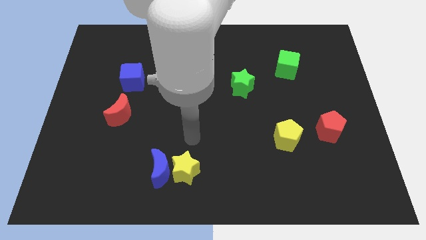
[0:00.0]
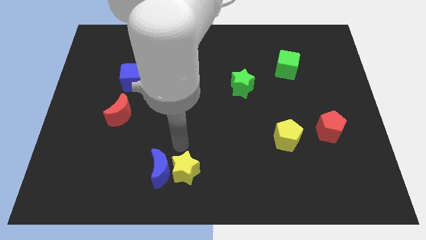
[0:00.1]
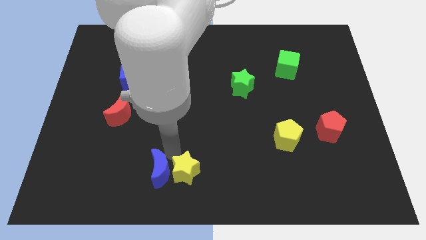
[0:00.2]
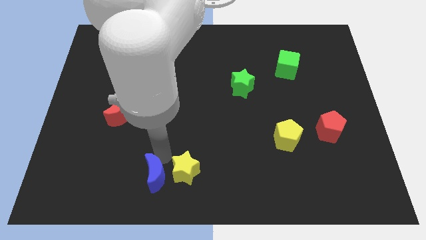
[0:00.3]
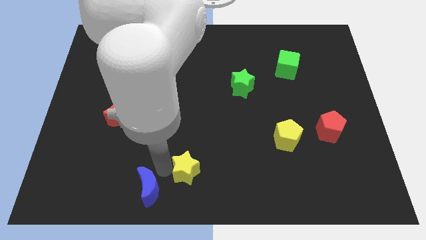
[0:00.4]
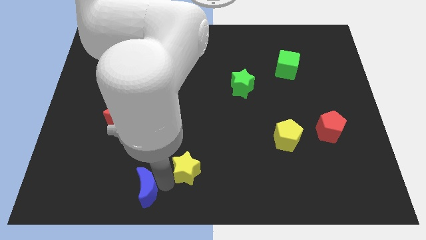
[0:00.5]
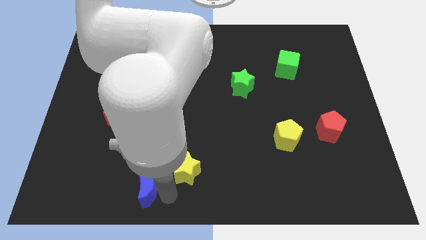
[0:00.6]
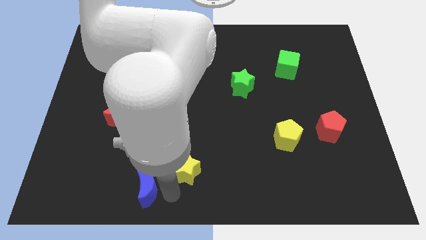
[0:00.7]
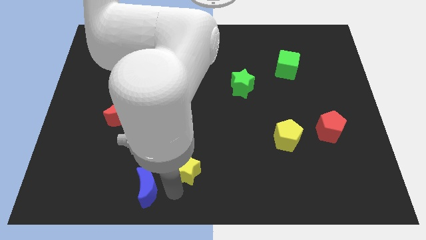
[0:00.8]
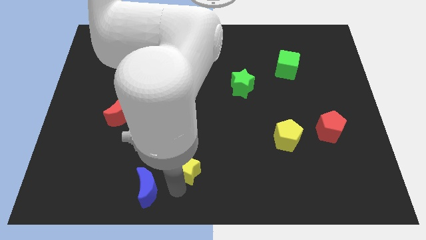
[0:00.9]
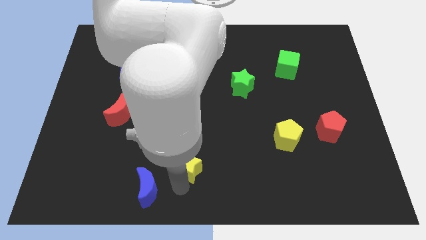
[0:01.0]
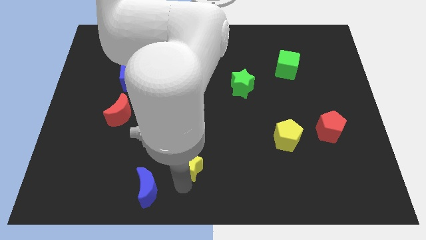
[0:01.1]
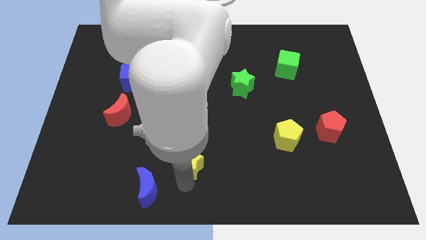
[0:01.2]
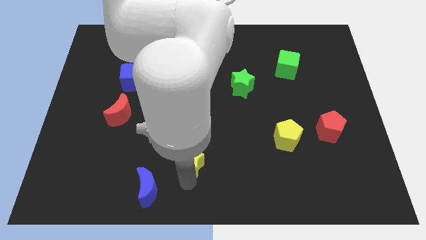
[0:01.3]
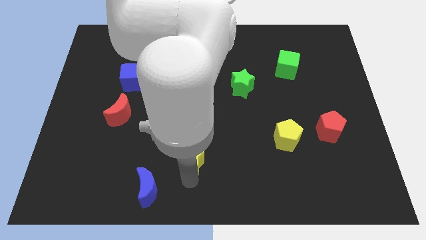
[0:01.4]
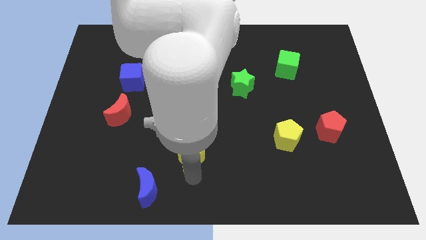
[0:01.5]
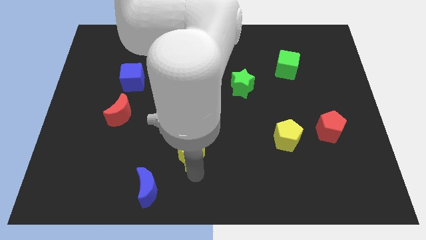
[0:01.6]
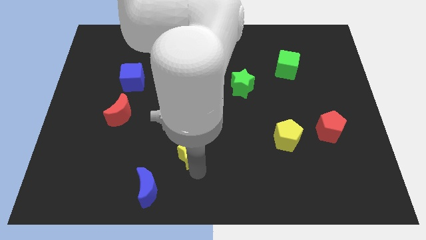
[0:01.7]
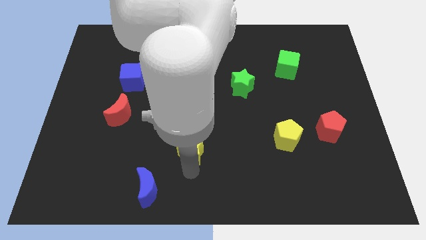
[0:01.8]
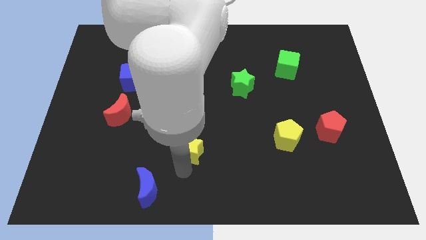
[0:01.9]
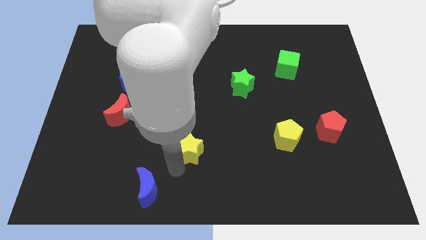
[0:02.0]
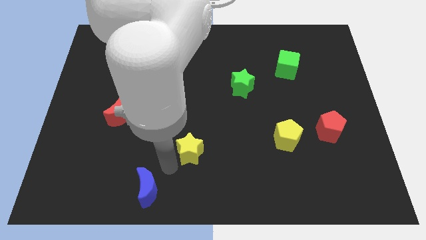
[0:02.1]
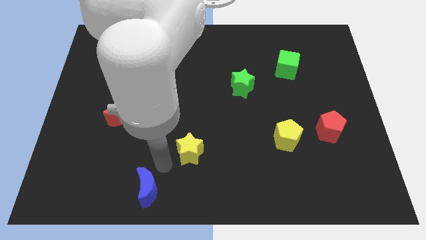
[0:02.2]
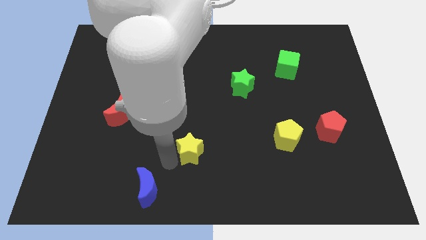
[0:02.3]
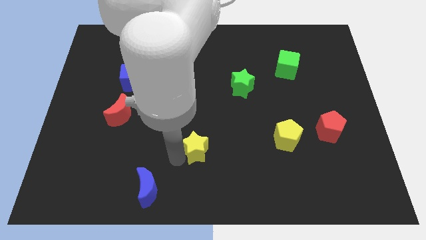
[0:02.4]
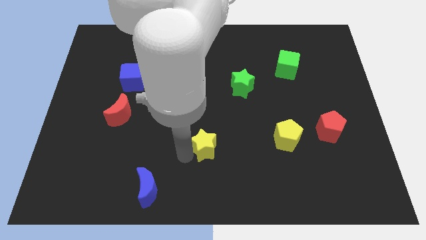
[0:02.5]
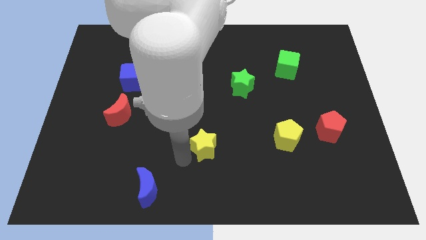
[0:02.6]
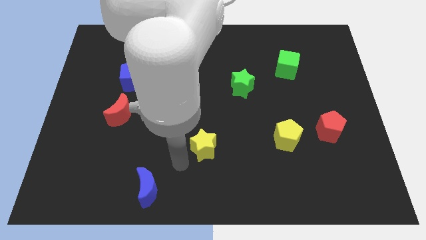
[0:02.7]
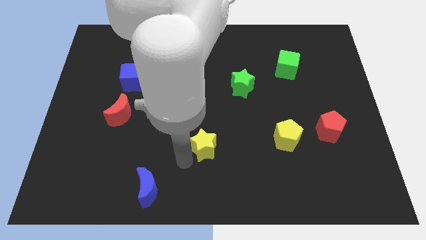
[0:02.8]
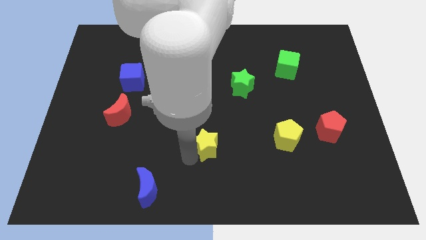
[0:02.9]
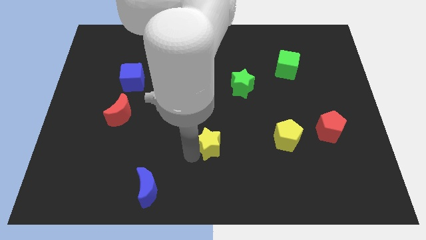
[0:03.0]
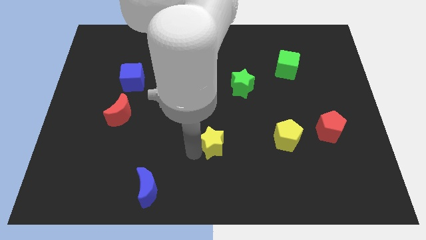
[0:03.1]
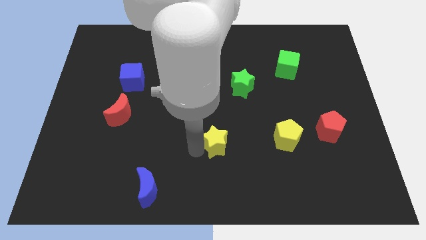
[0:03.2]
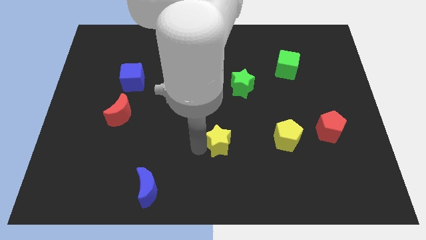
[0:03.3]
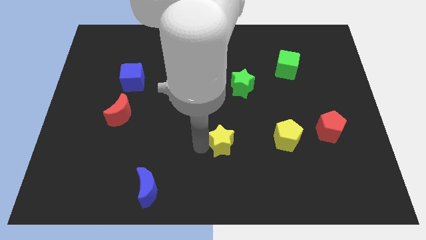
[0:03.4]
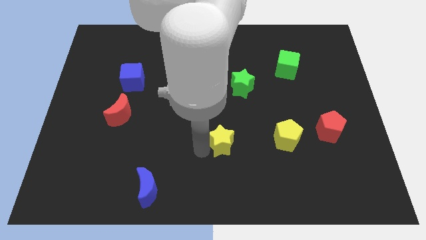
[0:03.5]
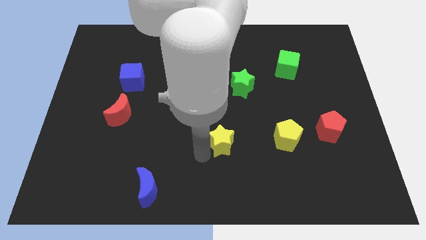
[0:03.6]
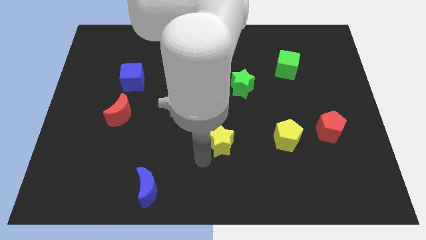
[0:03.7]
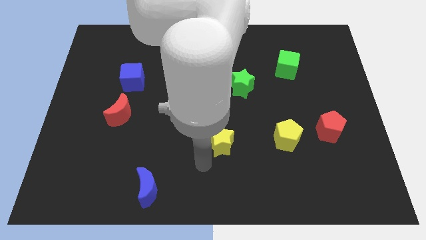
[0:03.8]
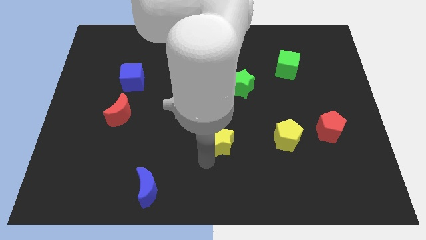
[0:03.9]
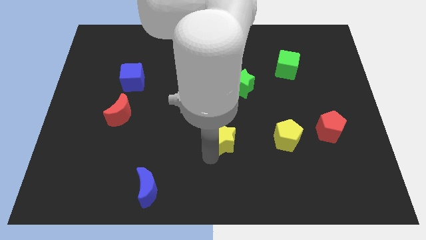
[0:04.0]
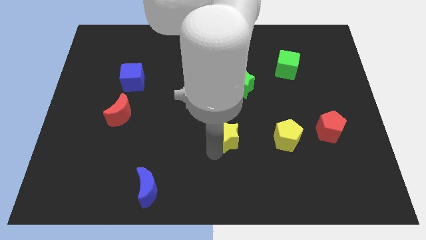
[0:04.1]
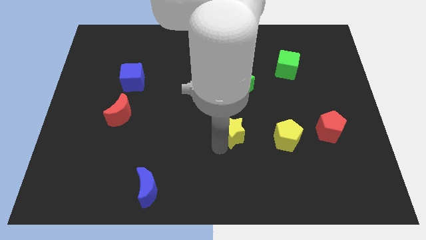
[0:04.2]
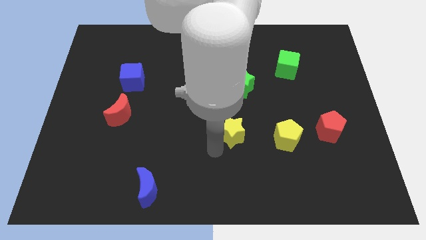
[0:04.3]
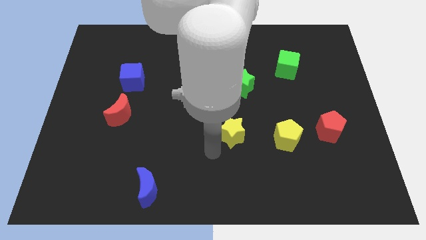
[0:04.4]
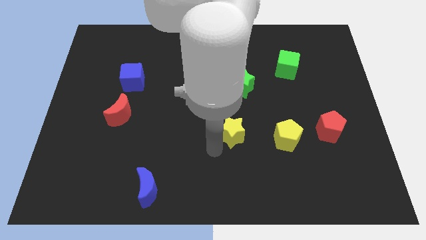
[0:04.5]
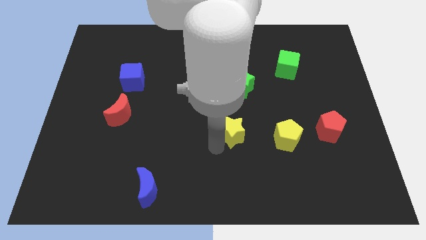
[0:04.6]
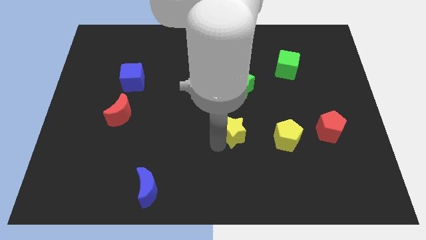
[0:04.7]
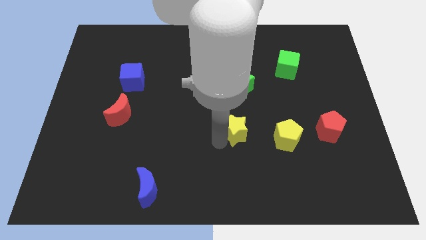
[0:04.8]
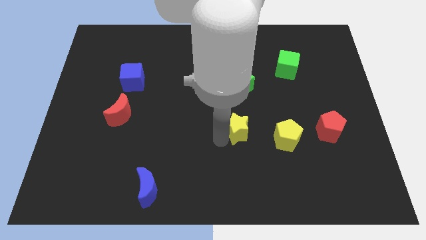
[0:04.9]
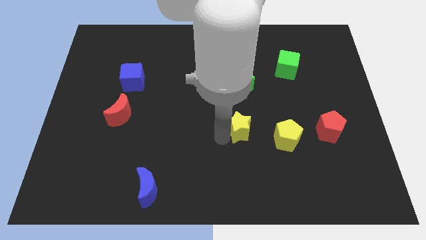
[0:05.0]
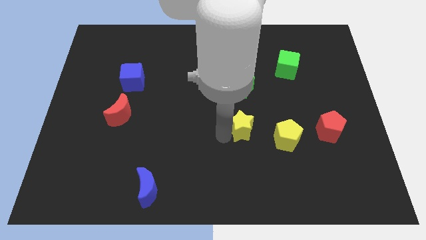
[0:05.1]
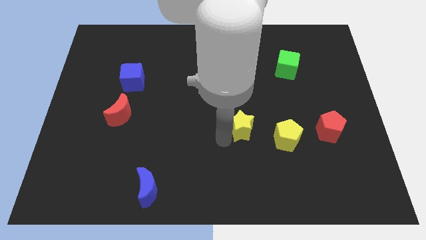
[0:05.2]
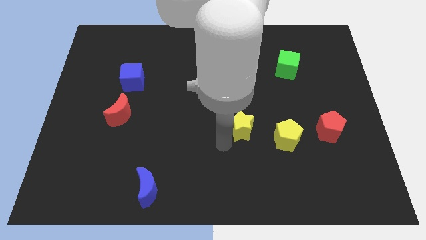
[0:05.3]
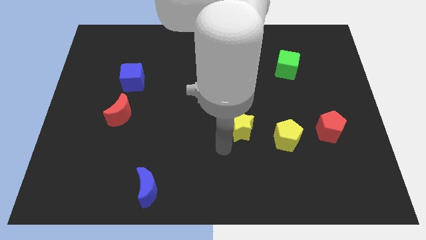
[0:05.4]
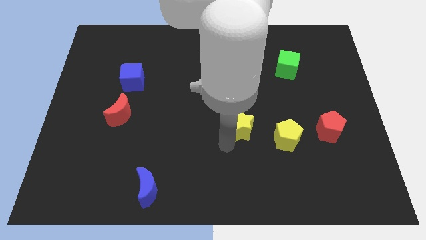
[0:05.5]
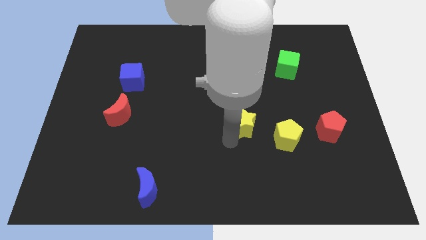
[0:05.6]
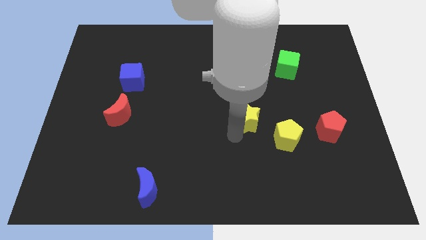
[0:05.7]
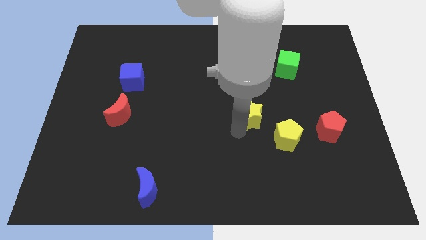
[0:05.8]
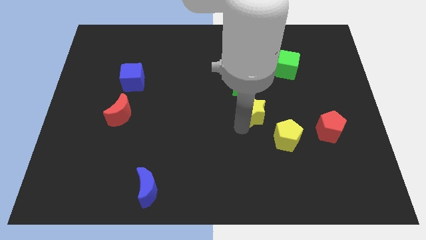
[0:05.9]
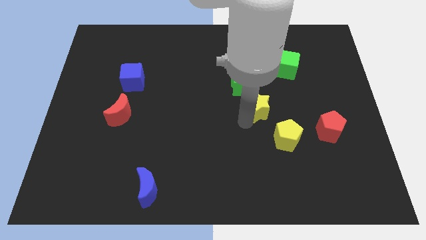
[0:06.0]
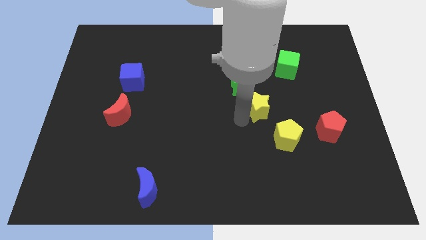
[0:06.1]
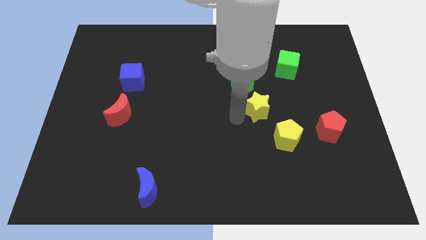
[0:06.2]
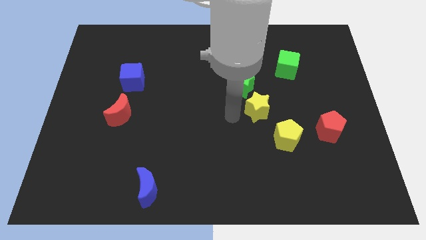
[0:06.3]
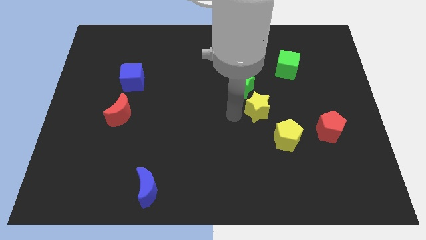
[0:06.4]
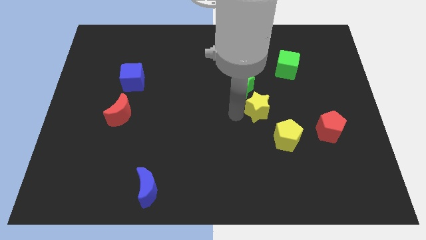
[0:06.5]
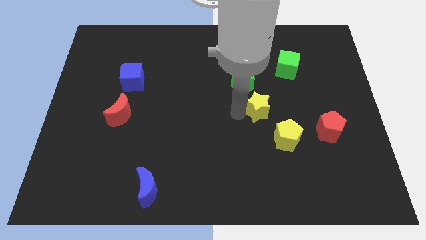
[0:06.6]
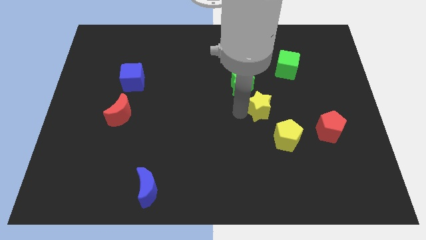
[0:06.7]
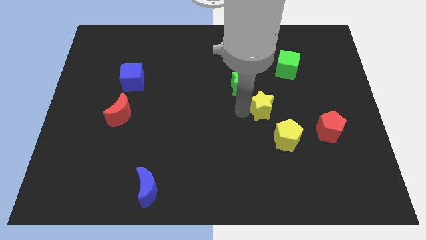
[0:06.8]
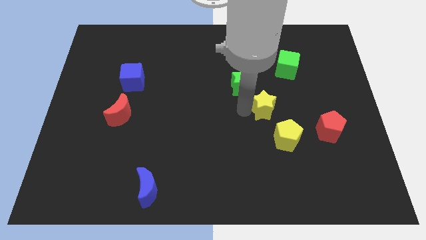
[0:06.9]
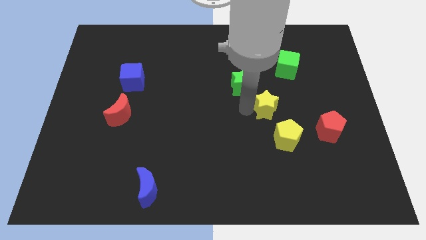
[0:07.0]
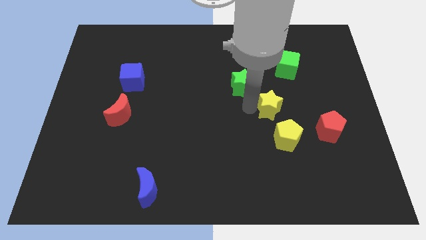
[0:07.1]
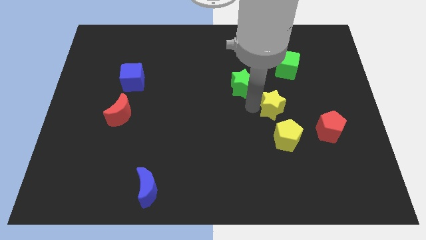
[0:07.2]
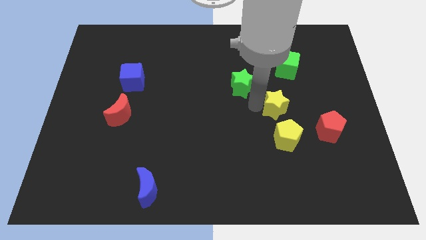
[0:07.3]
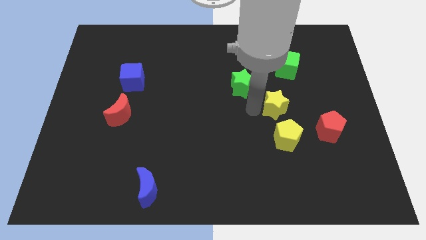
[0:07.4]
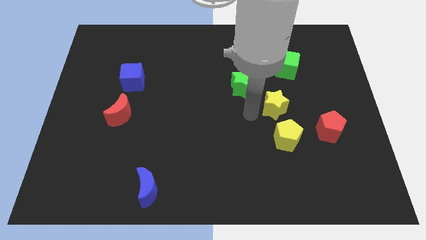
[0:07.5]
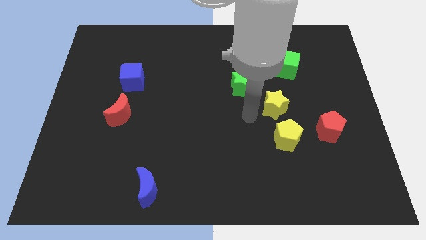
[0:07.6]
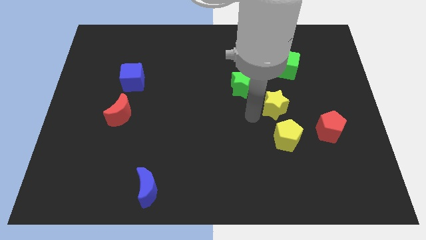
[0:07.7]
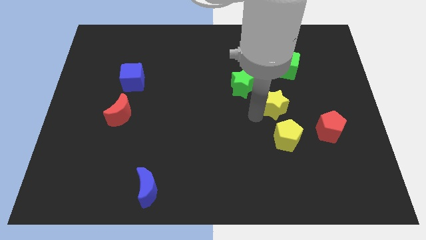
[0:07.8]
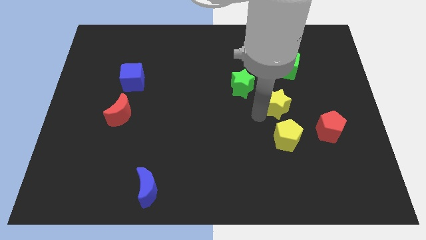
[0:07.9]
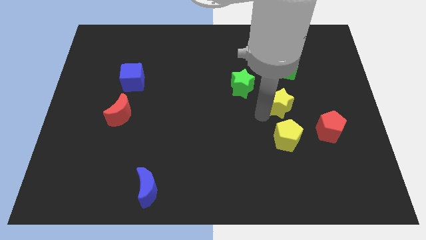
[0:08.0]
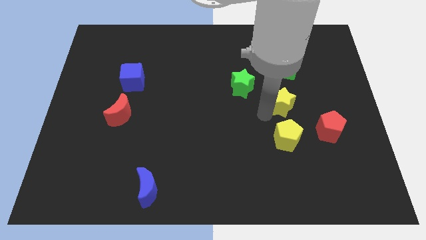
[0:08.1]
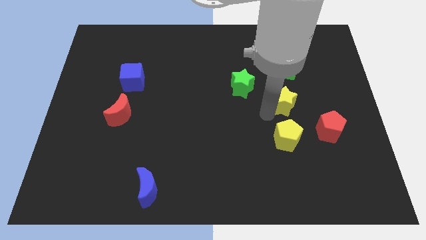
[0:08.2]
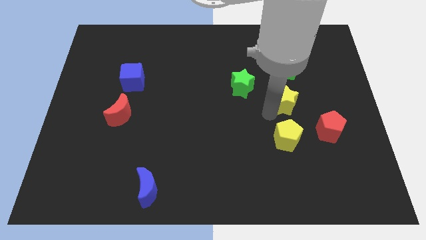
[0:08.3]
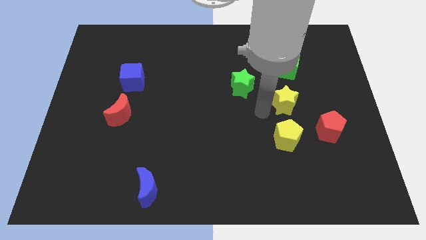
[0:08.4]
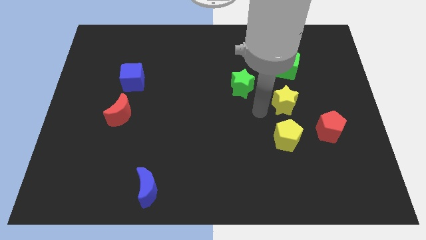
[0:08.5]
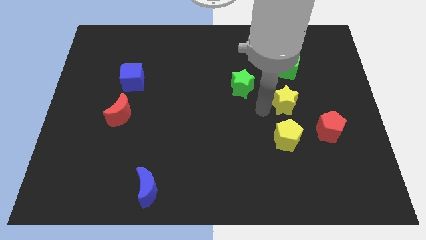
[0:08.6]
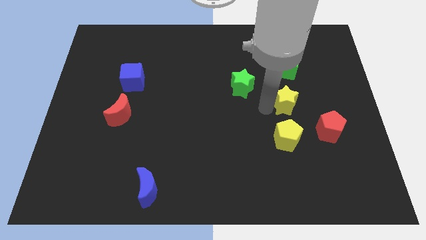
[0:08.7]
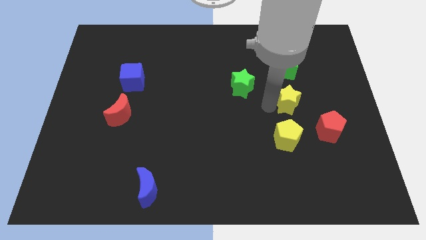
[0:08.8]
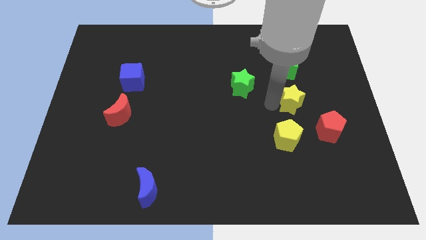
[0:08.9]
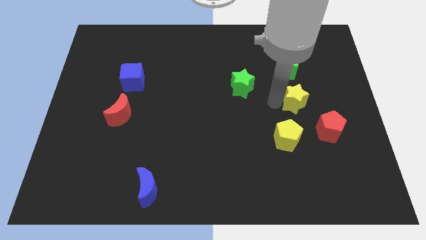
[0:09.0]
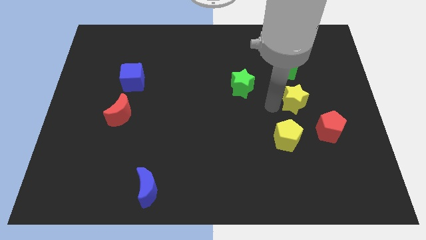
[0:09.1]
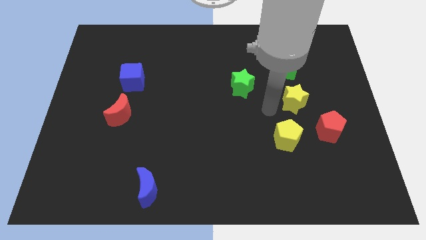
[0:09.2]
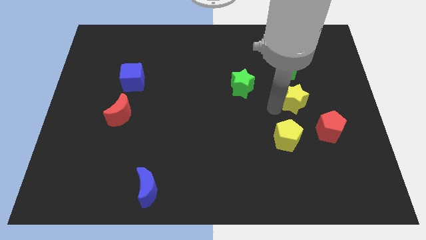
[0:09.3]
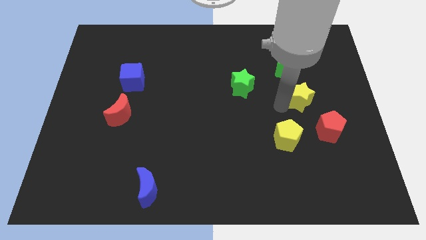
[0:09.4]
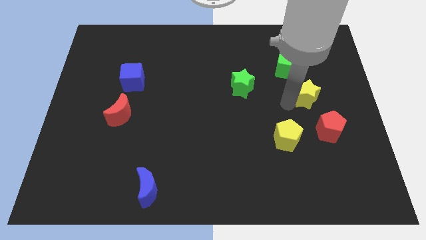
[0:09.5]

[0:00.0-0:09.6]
put the yellow star above the red pentagon
